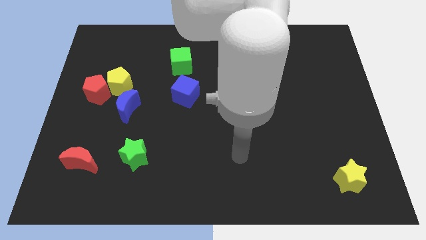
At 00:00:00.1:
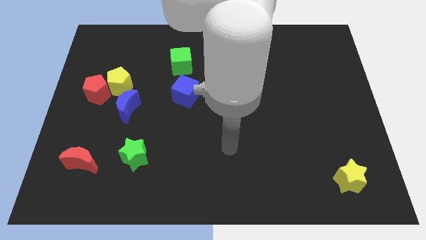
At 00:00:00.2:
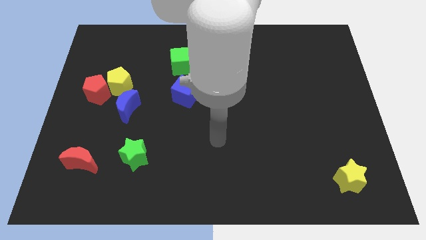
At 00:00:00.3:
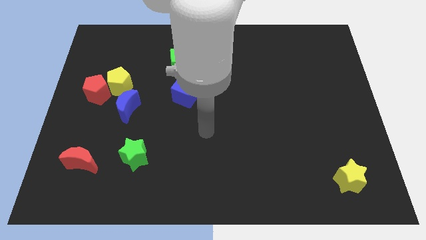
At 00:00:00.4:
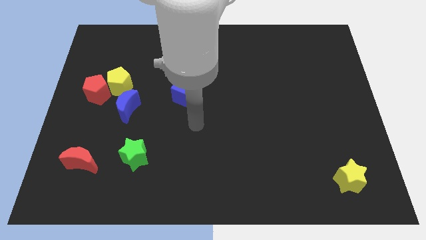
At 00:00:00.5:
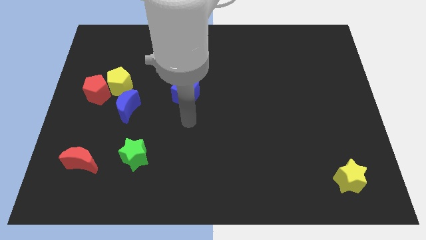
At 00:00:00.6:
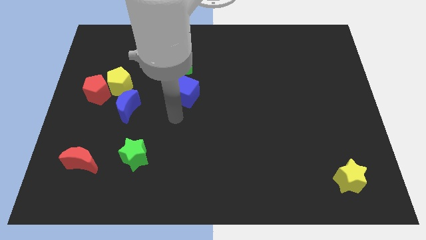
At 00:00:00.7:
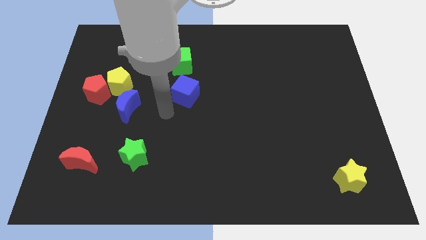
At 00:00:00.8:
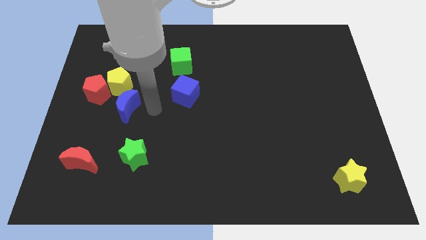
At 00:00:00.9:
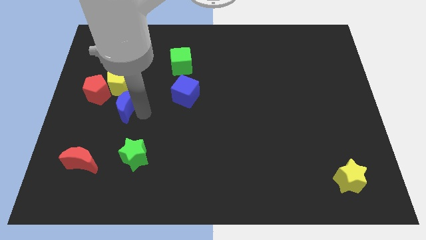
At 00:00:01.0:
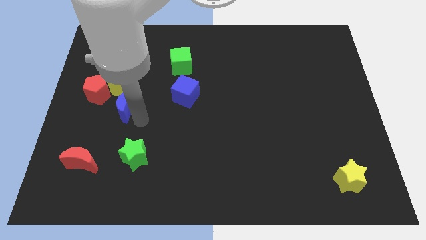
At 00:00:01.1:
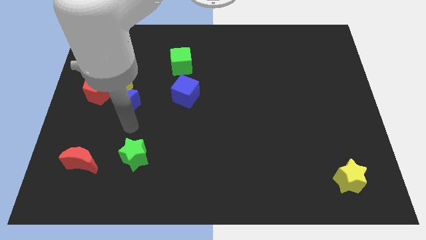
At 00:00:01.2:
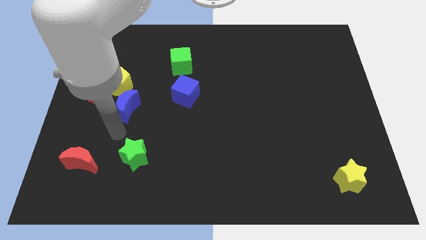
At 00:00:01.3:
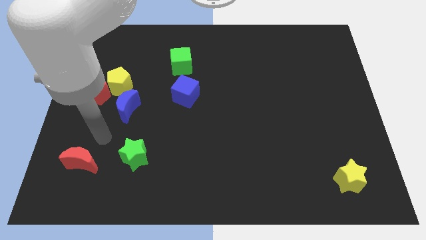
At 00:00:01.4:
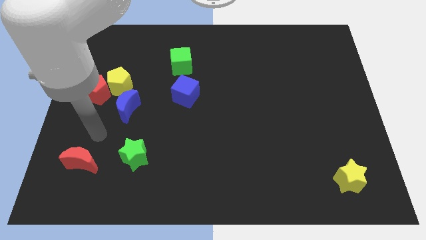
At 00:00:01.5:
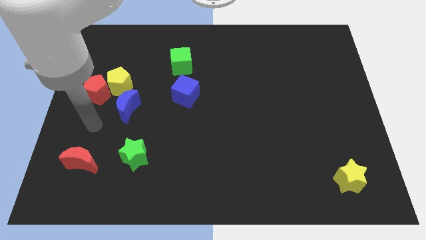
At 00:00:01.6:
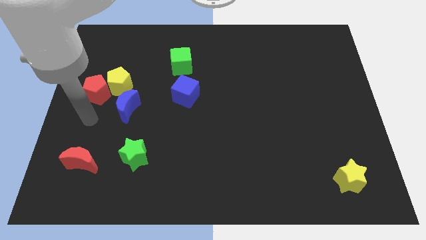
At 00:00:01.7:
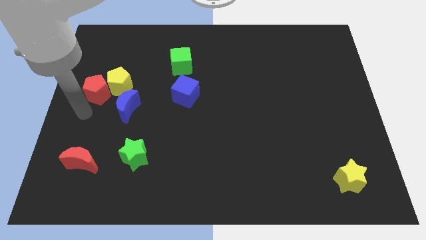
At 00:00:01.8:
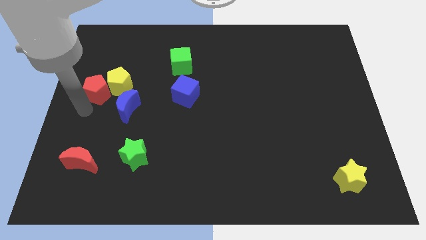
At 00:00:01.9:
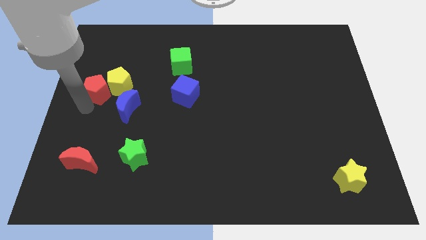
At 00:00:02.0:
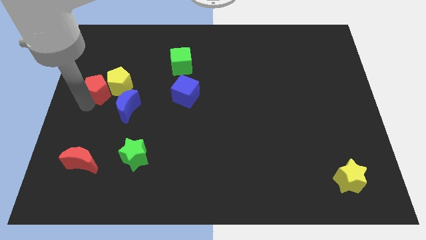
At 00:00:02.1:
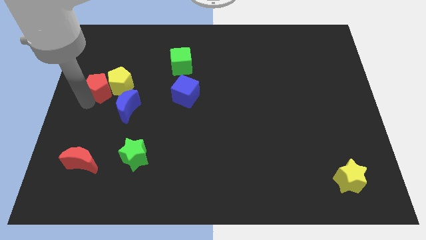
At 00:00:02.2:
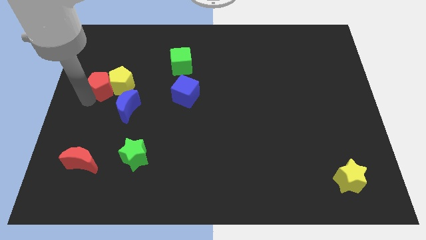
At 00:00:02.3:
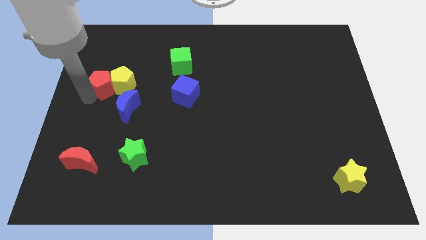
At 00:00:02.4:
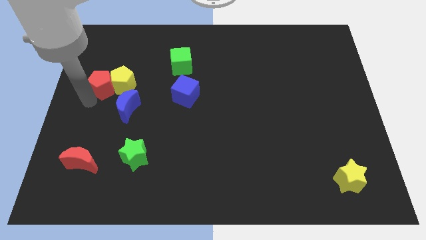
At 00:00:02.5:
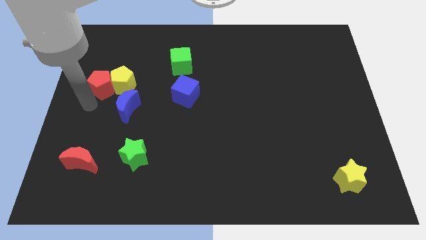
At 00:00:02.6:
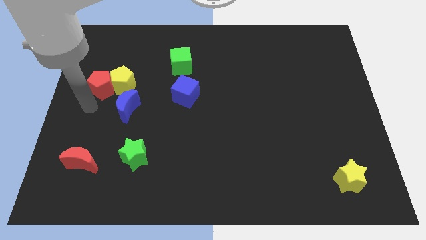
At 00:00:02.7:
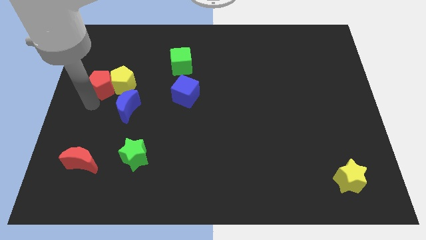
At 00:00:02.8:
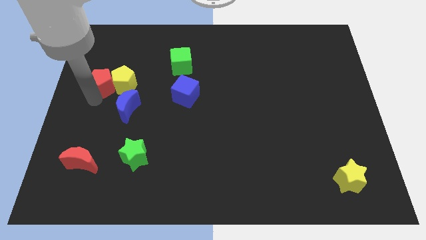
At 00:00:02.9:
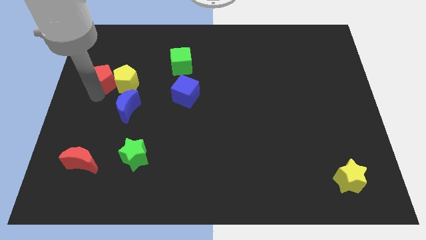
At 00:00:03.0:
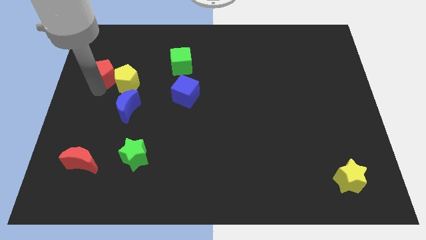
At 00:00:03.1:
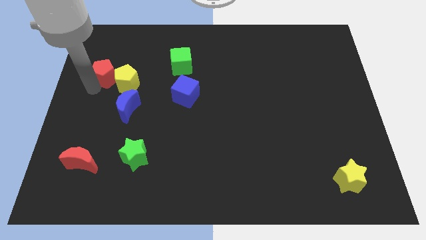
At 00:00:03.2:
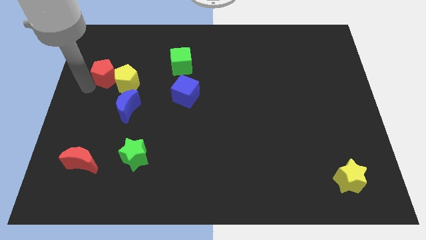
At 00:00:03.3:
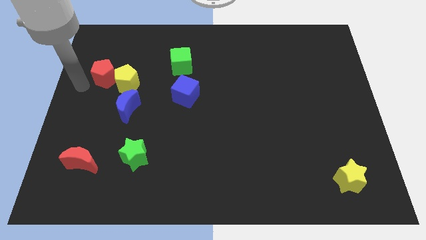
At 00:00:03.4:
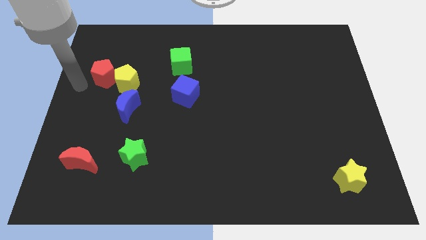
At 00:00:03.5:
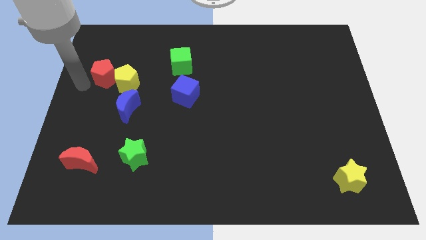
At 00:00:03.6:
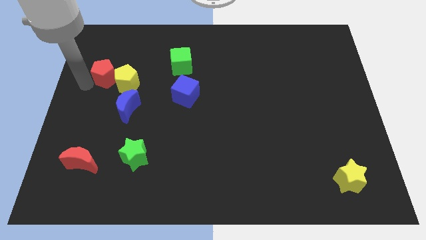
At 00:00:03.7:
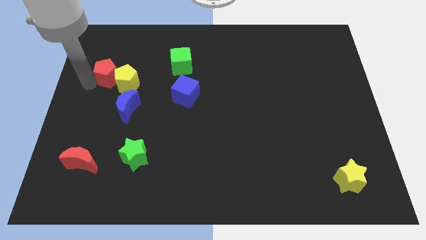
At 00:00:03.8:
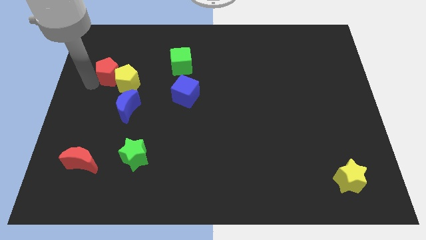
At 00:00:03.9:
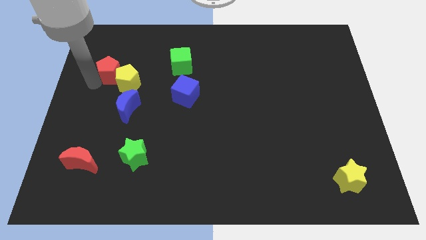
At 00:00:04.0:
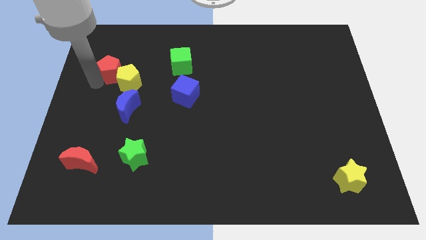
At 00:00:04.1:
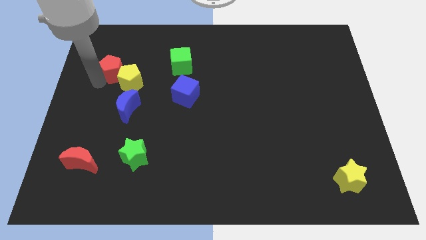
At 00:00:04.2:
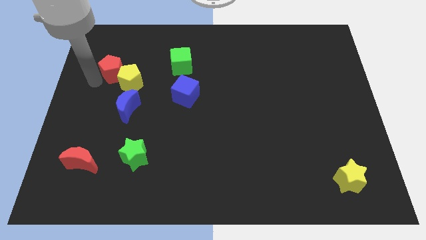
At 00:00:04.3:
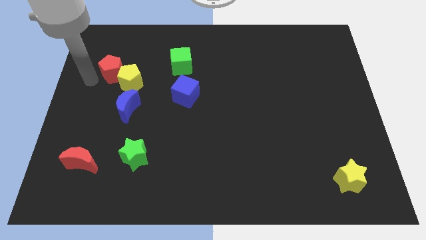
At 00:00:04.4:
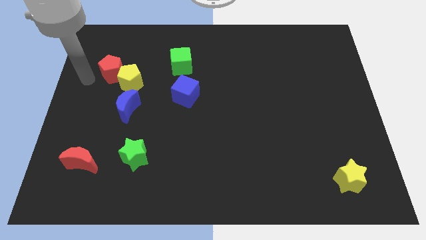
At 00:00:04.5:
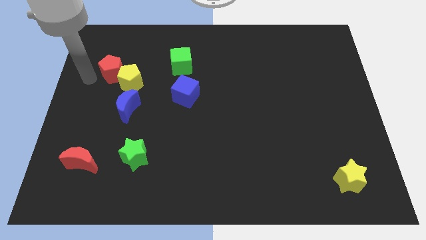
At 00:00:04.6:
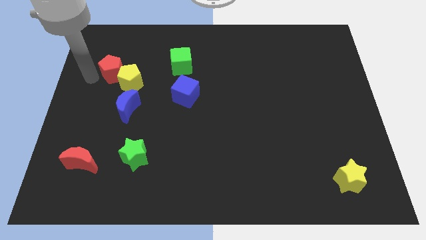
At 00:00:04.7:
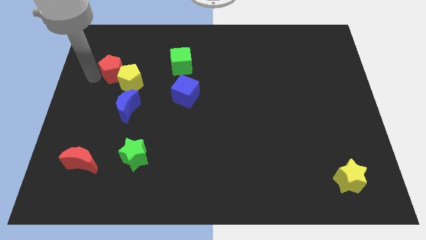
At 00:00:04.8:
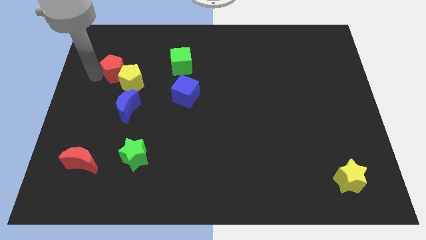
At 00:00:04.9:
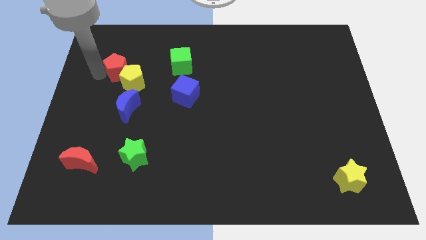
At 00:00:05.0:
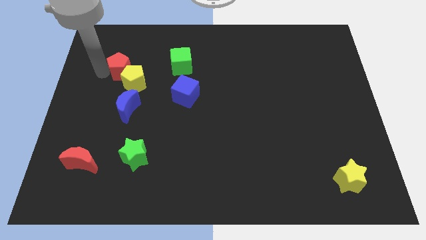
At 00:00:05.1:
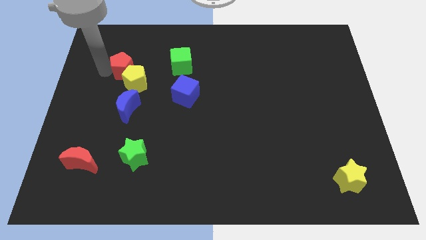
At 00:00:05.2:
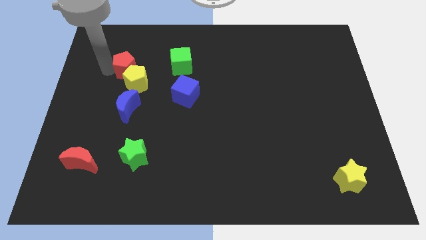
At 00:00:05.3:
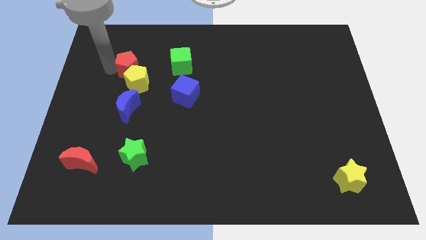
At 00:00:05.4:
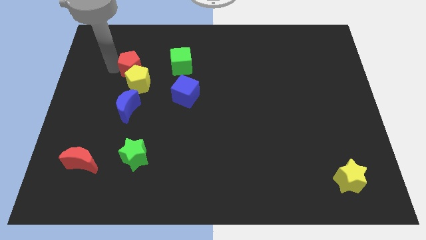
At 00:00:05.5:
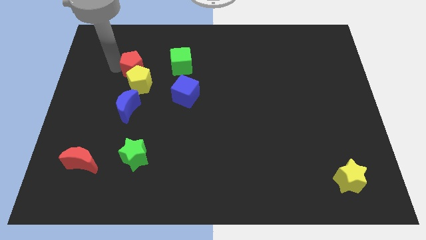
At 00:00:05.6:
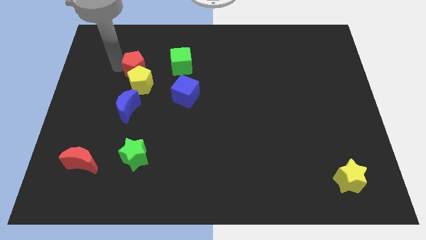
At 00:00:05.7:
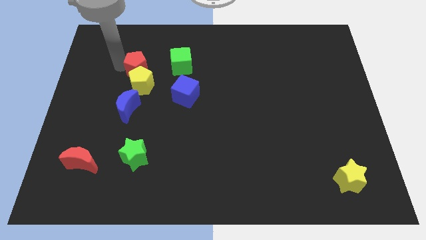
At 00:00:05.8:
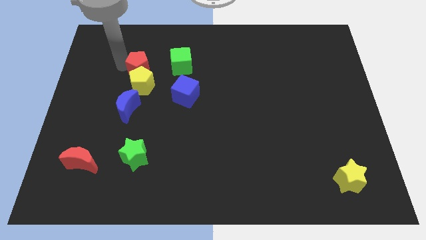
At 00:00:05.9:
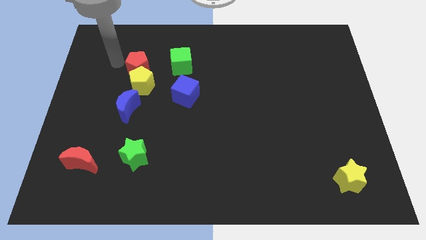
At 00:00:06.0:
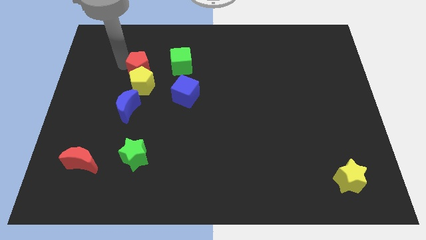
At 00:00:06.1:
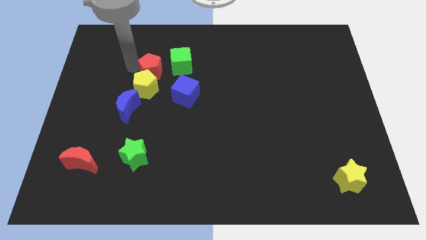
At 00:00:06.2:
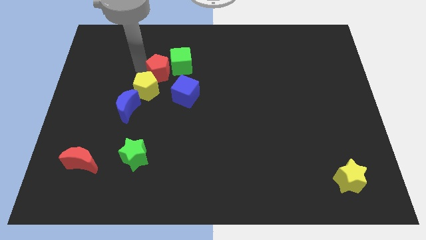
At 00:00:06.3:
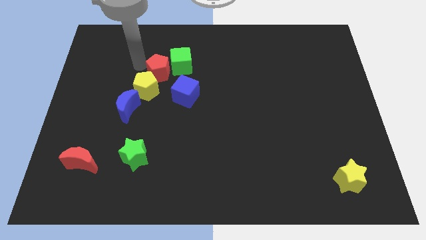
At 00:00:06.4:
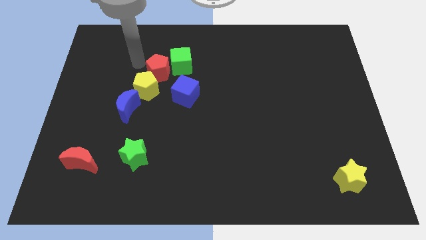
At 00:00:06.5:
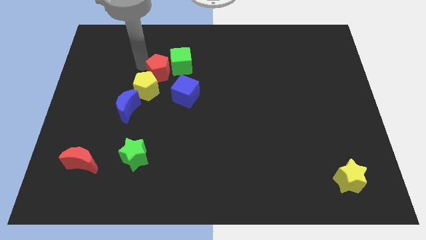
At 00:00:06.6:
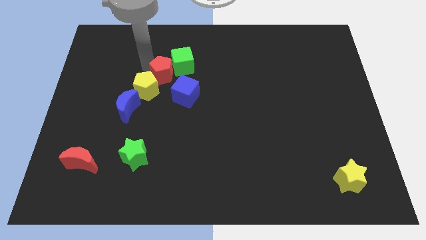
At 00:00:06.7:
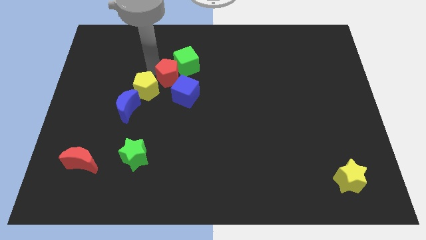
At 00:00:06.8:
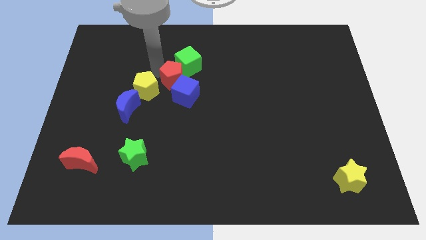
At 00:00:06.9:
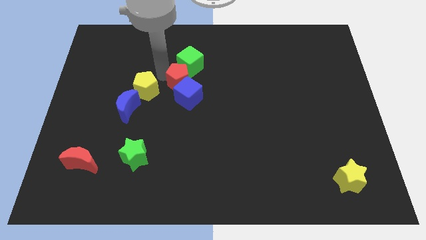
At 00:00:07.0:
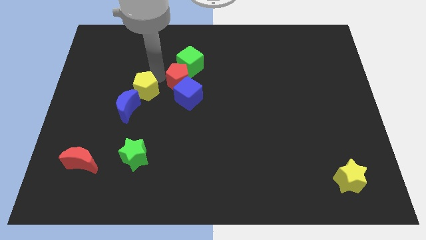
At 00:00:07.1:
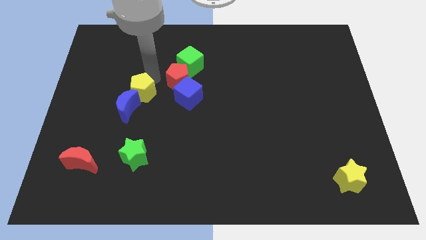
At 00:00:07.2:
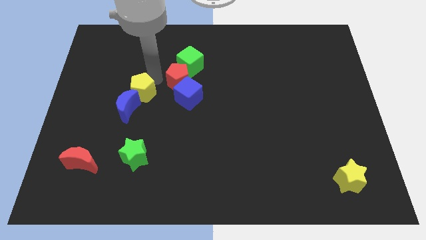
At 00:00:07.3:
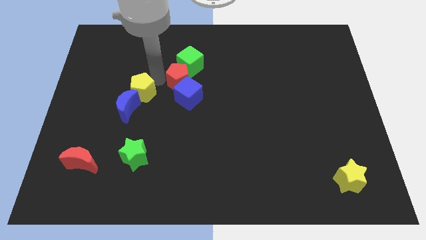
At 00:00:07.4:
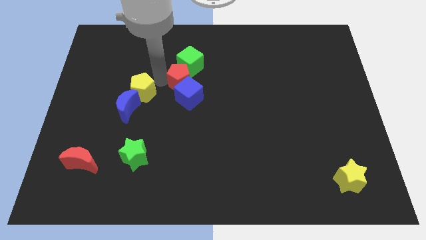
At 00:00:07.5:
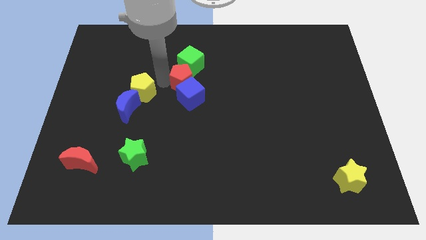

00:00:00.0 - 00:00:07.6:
slide the red pentagon right

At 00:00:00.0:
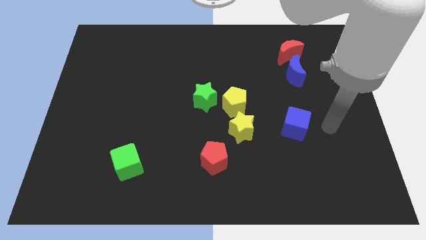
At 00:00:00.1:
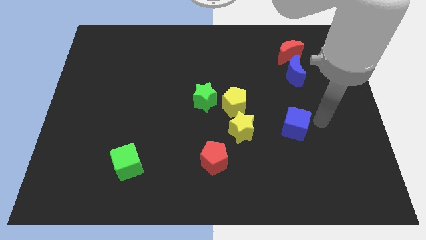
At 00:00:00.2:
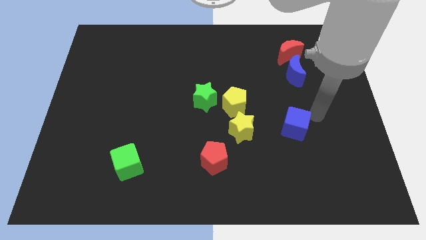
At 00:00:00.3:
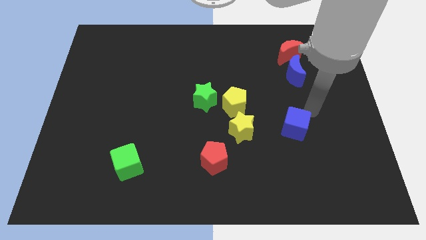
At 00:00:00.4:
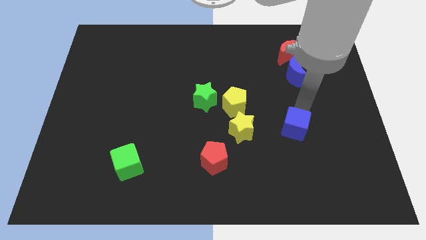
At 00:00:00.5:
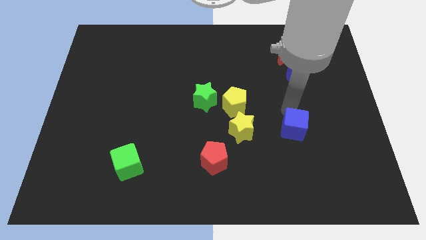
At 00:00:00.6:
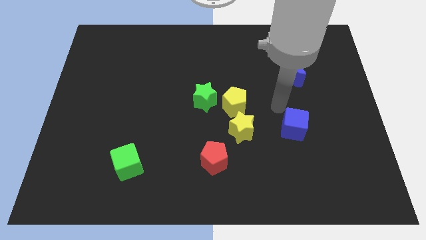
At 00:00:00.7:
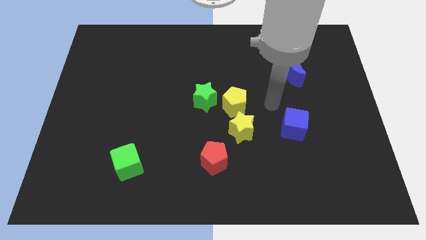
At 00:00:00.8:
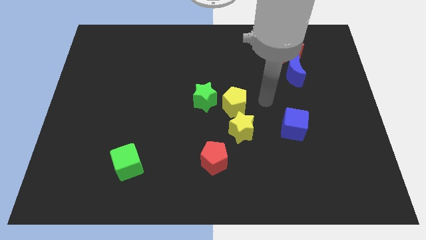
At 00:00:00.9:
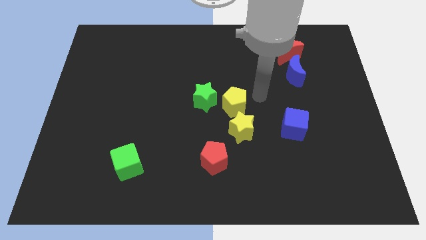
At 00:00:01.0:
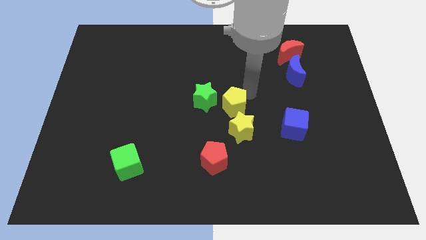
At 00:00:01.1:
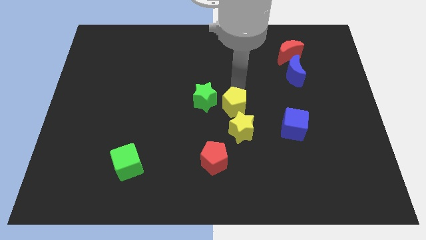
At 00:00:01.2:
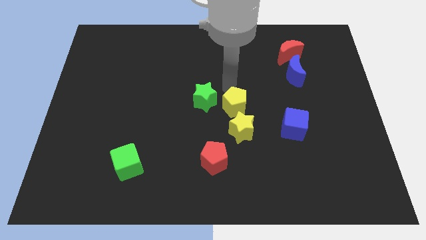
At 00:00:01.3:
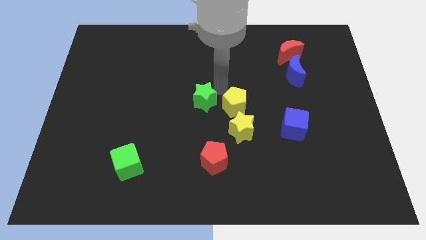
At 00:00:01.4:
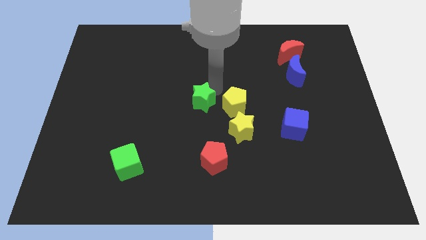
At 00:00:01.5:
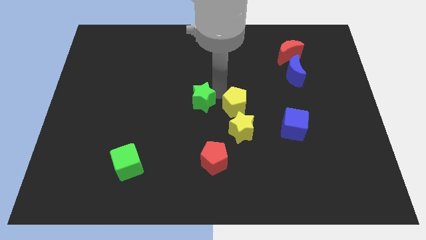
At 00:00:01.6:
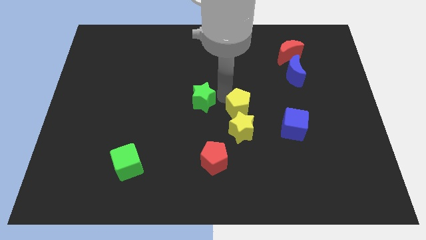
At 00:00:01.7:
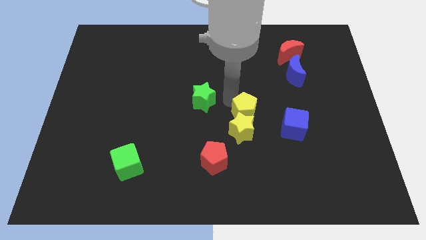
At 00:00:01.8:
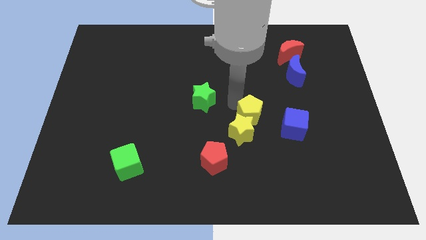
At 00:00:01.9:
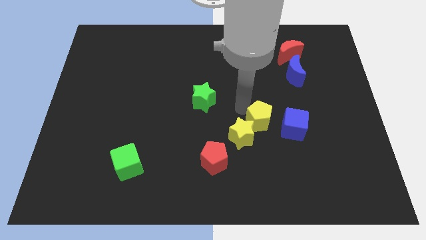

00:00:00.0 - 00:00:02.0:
slightly move the yellow pentagon down and to the right diagonally
